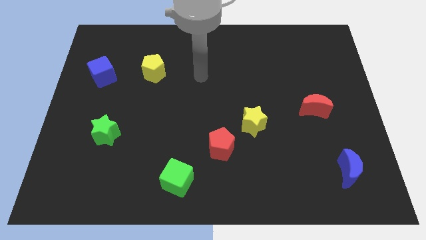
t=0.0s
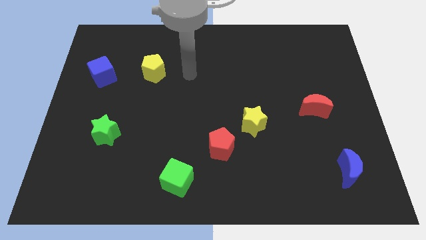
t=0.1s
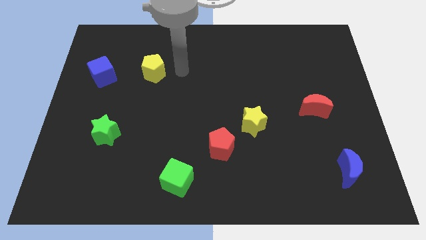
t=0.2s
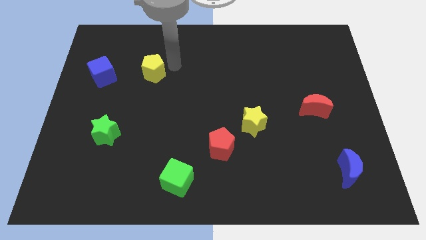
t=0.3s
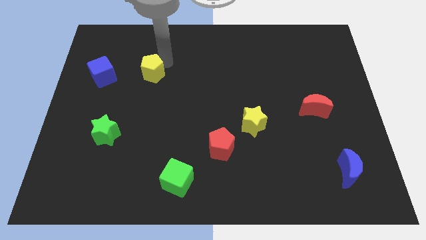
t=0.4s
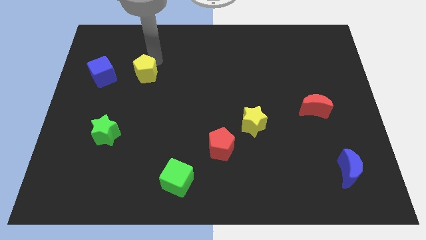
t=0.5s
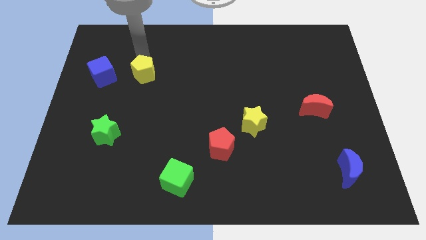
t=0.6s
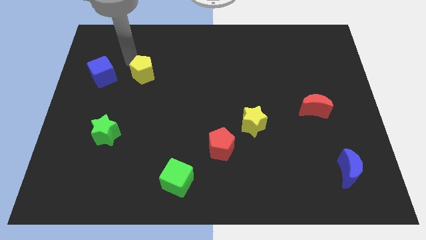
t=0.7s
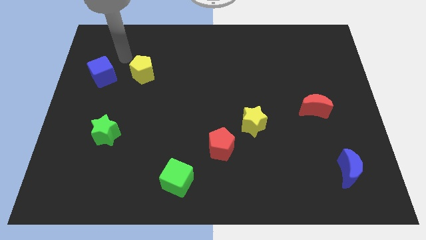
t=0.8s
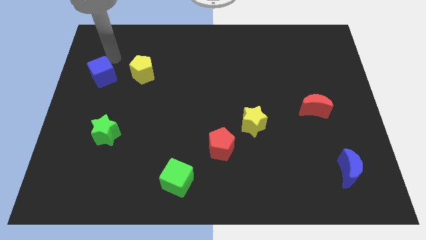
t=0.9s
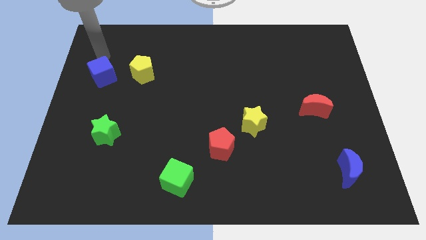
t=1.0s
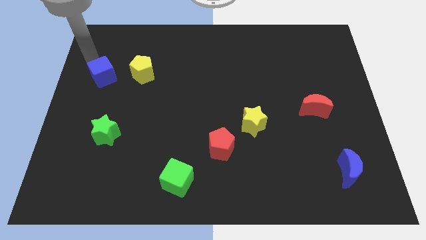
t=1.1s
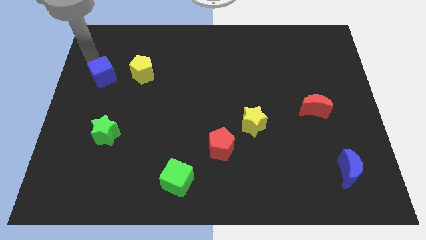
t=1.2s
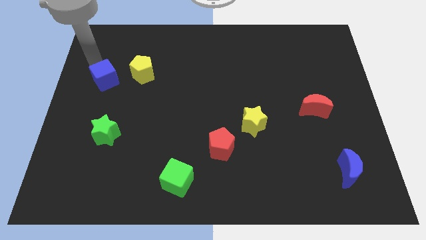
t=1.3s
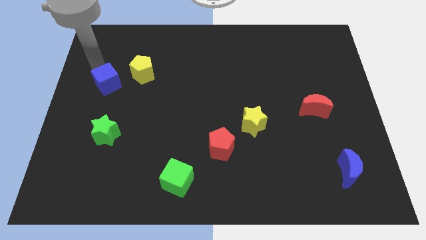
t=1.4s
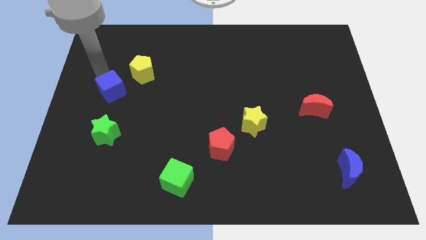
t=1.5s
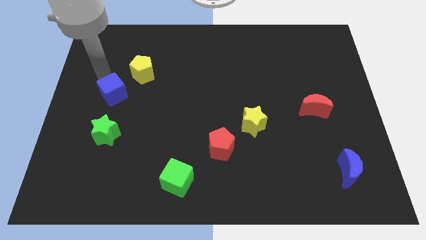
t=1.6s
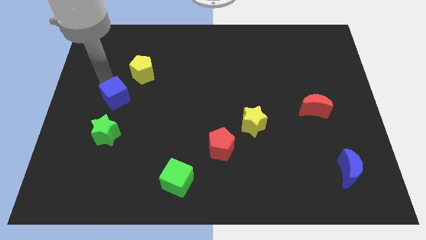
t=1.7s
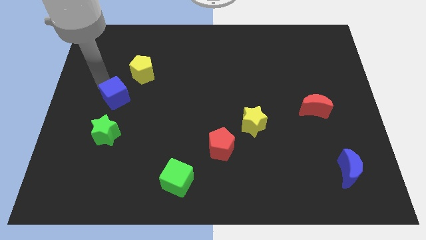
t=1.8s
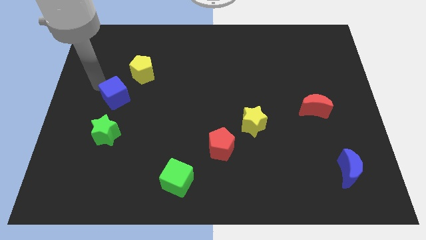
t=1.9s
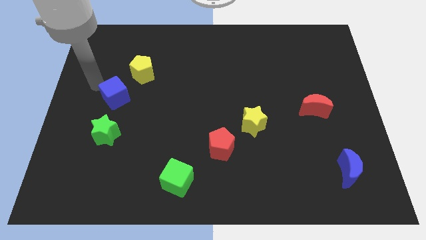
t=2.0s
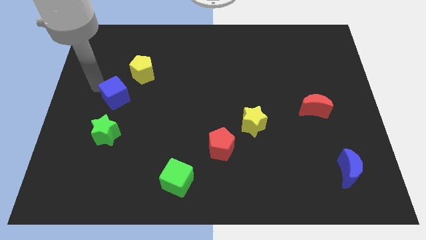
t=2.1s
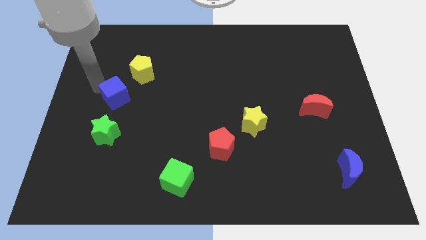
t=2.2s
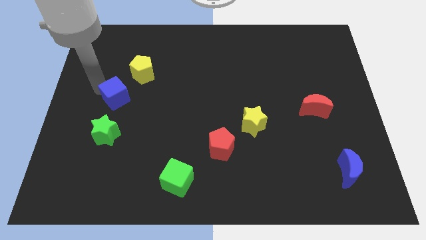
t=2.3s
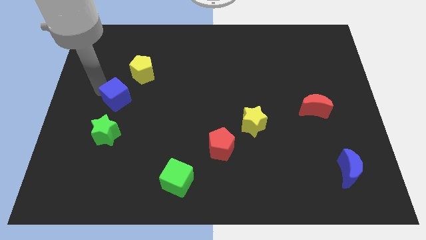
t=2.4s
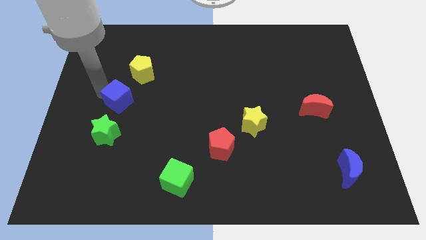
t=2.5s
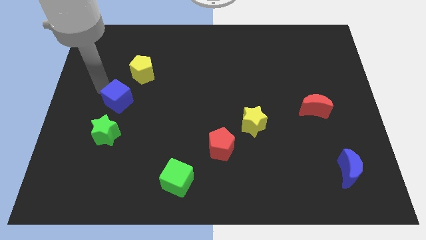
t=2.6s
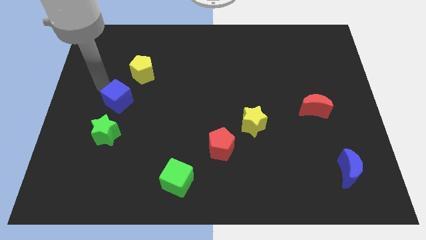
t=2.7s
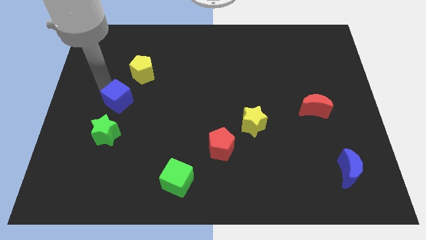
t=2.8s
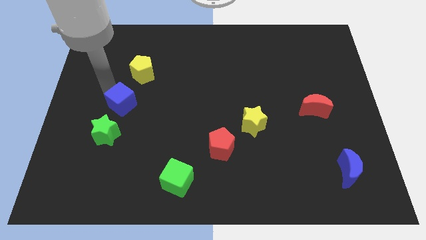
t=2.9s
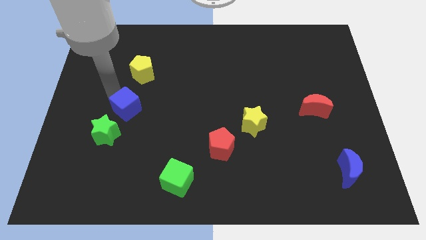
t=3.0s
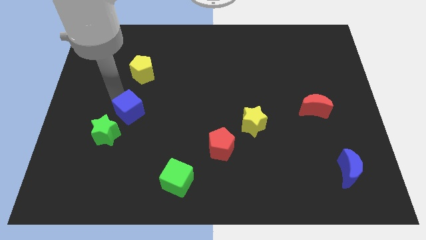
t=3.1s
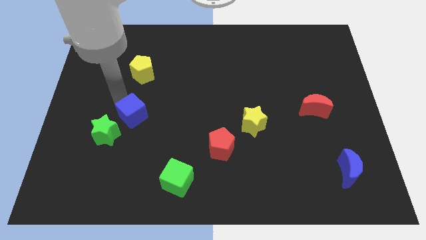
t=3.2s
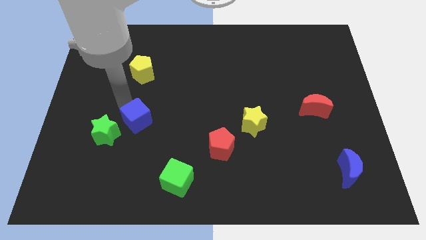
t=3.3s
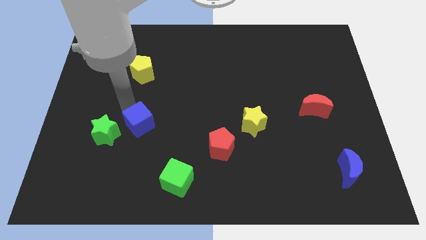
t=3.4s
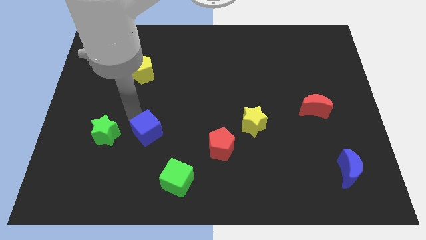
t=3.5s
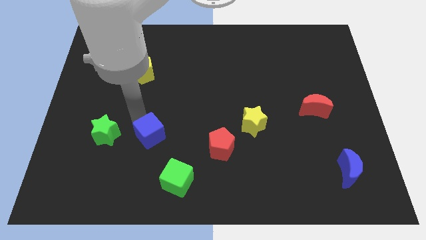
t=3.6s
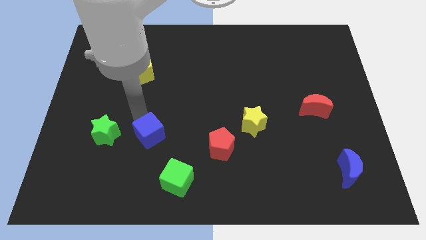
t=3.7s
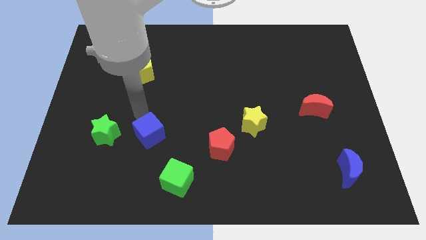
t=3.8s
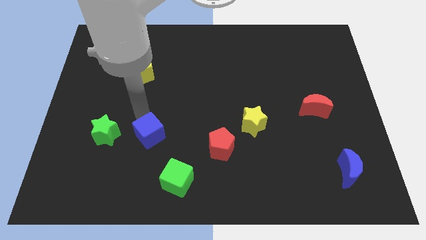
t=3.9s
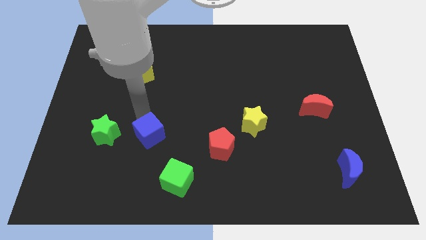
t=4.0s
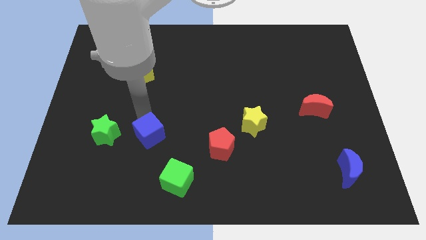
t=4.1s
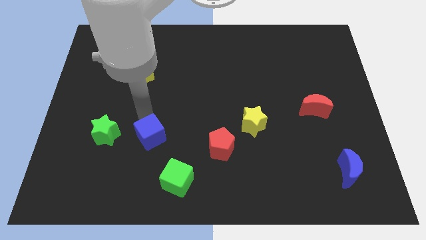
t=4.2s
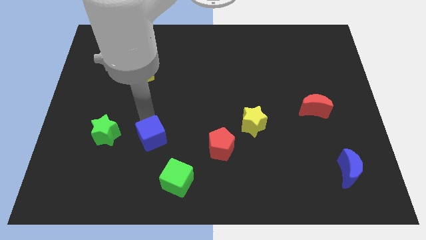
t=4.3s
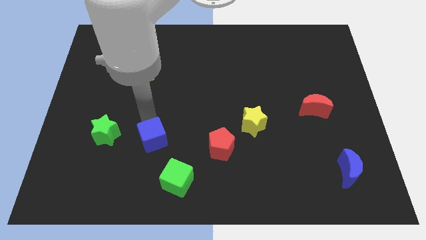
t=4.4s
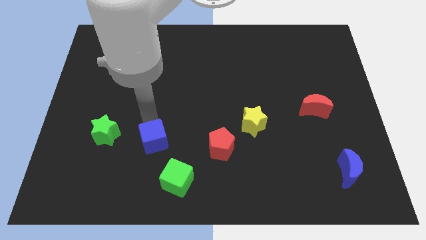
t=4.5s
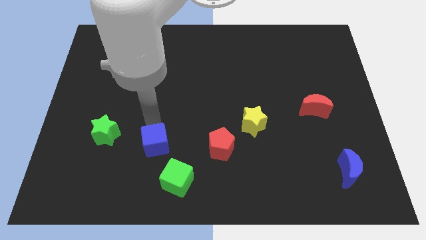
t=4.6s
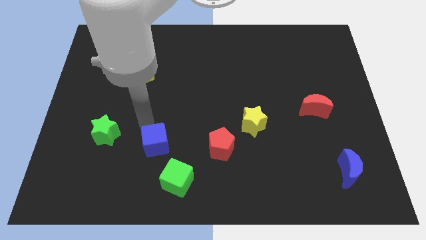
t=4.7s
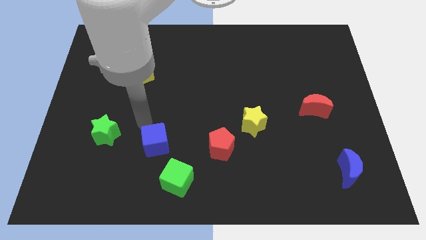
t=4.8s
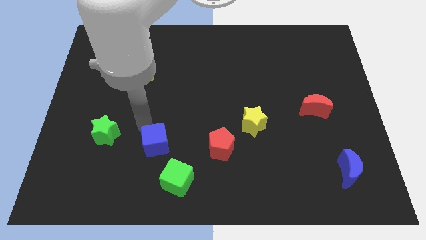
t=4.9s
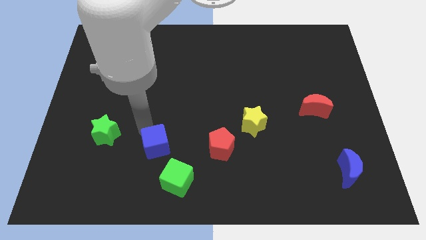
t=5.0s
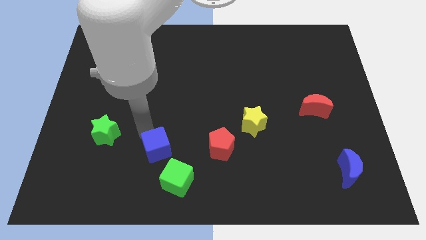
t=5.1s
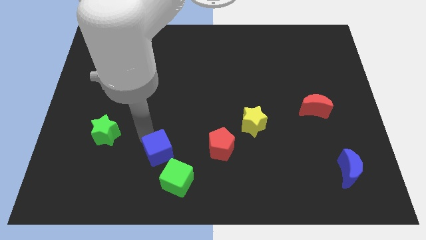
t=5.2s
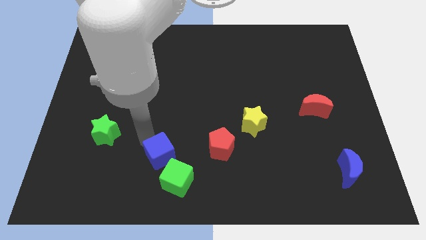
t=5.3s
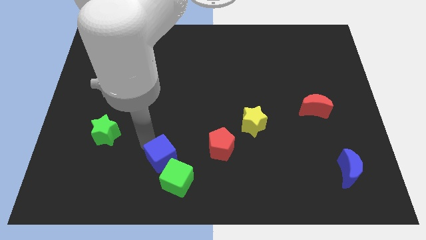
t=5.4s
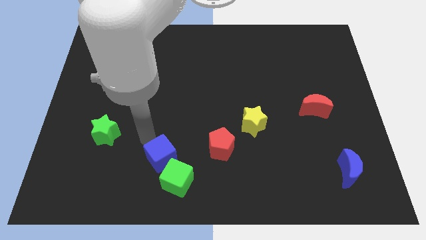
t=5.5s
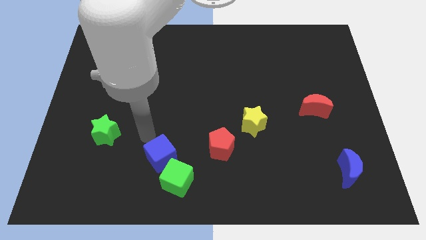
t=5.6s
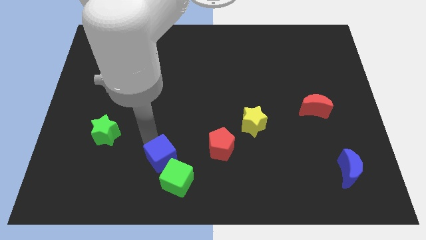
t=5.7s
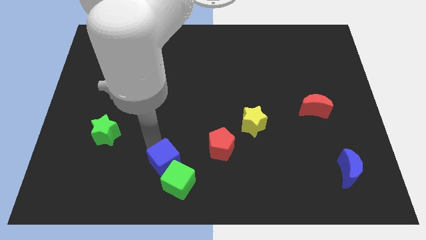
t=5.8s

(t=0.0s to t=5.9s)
slide the blue cube next to the green cube

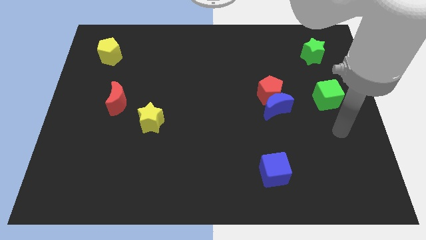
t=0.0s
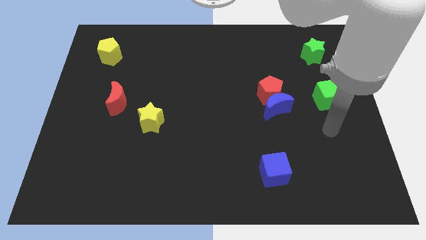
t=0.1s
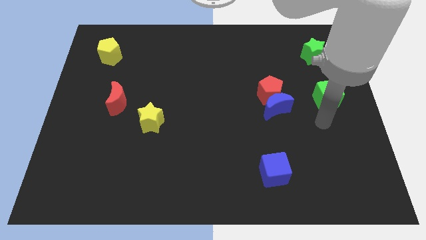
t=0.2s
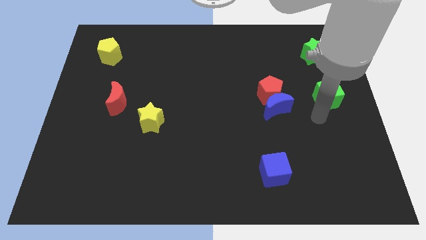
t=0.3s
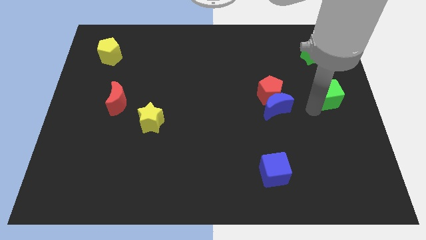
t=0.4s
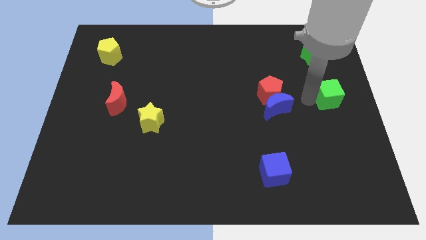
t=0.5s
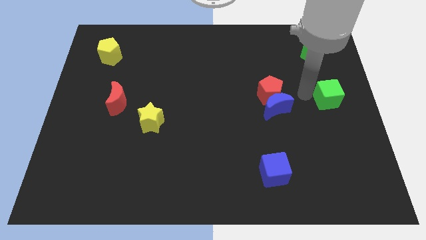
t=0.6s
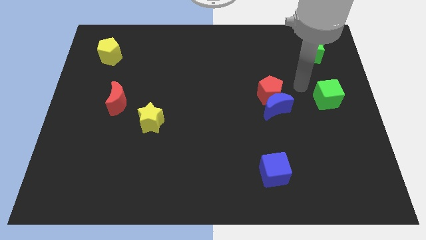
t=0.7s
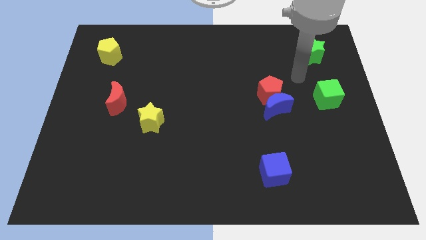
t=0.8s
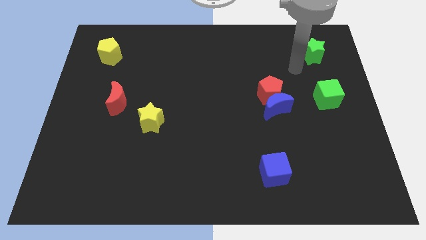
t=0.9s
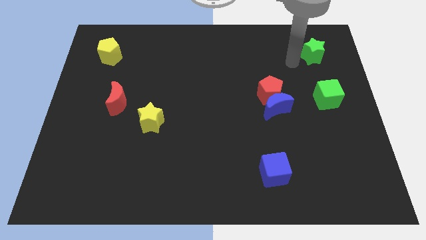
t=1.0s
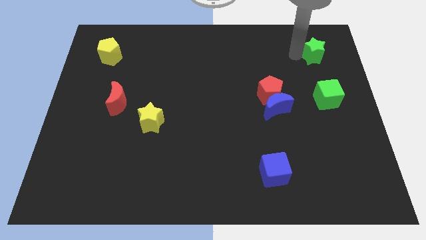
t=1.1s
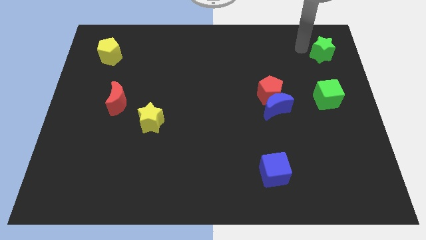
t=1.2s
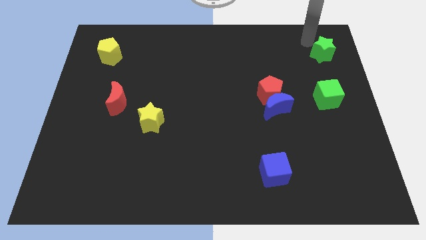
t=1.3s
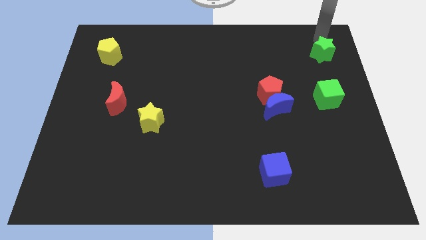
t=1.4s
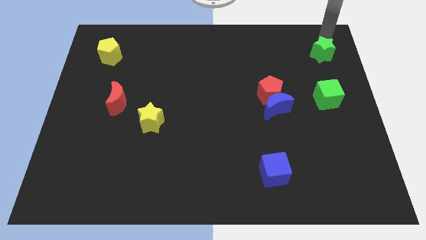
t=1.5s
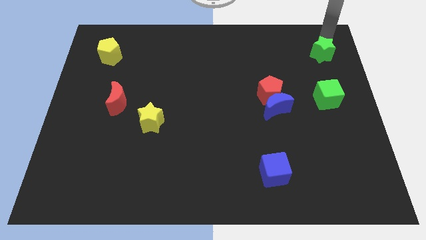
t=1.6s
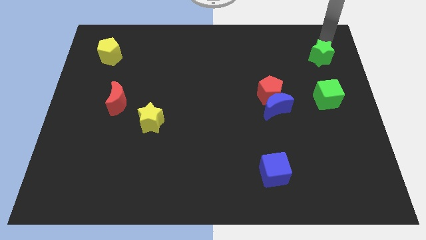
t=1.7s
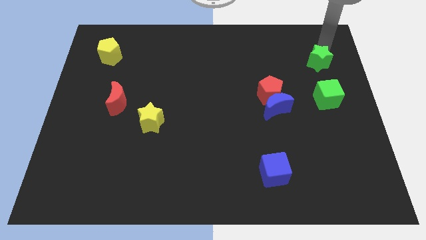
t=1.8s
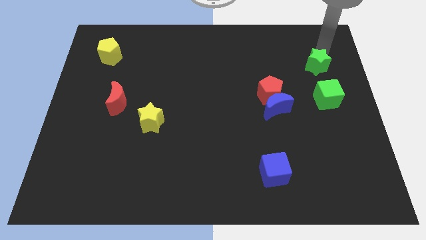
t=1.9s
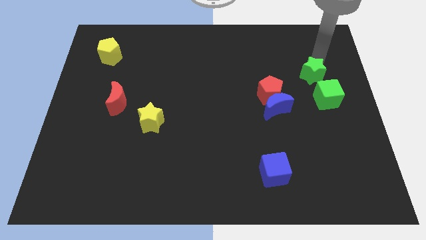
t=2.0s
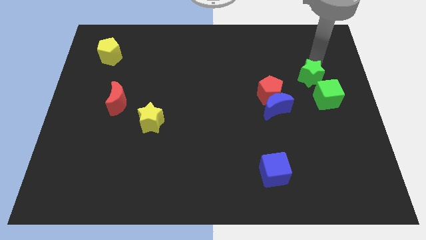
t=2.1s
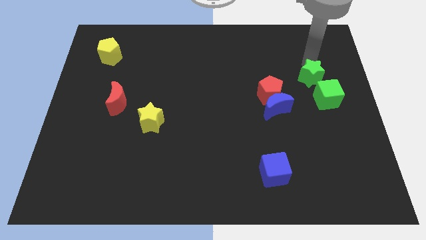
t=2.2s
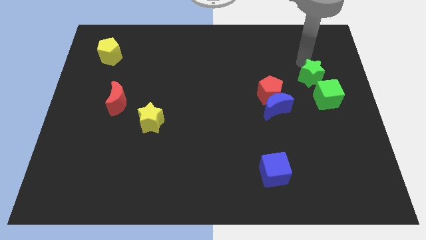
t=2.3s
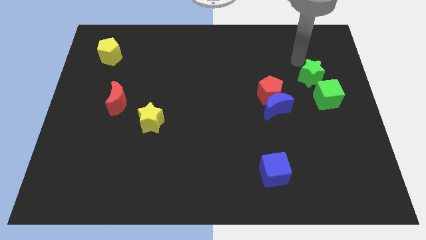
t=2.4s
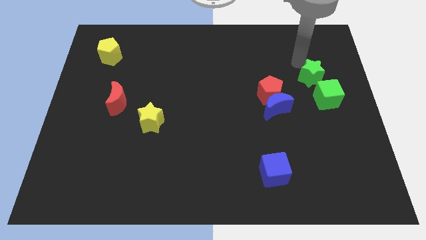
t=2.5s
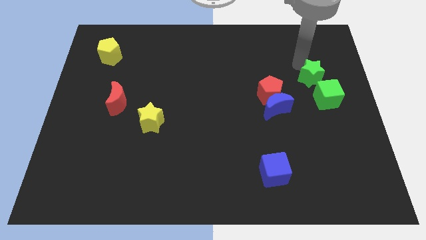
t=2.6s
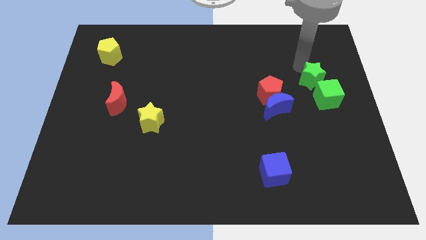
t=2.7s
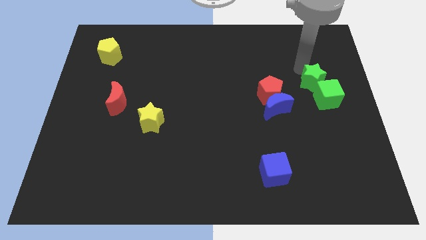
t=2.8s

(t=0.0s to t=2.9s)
push the green star to the green cube
